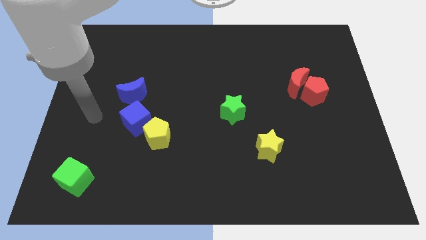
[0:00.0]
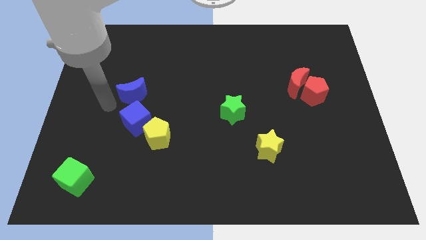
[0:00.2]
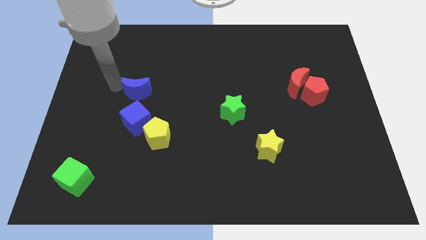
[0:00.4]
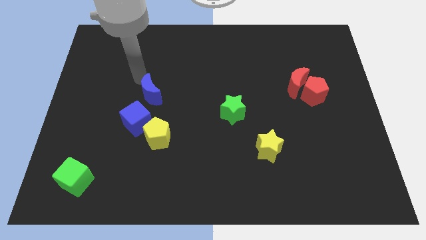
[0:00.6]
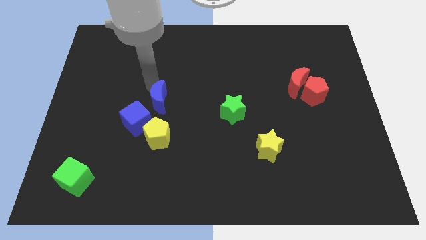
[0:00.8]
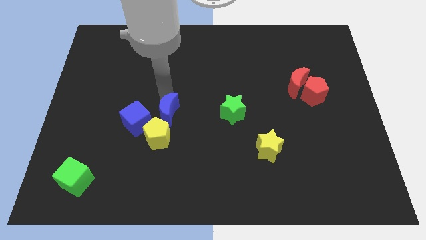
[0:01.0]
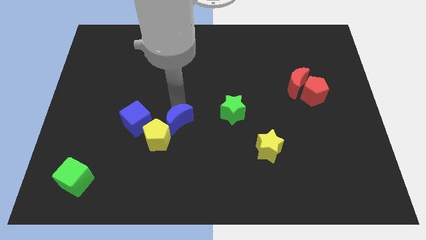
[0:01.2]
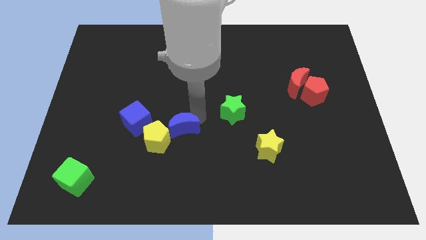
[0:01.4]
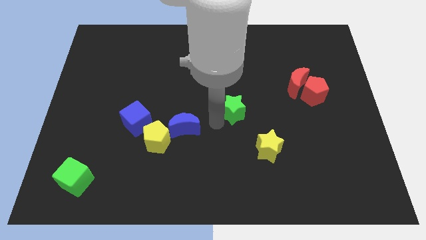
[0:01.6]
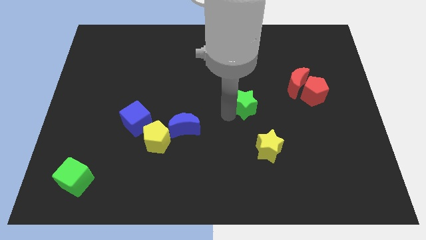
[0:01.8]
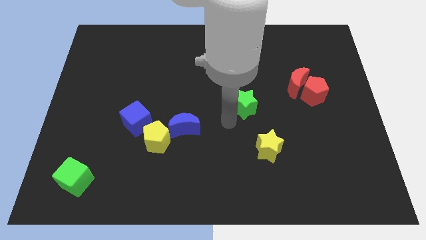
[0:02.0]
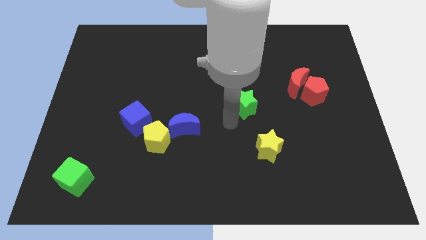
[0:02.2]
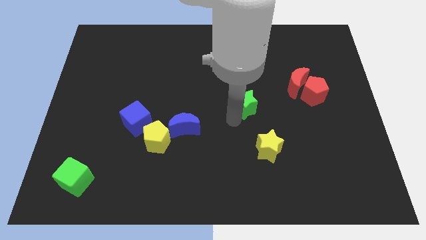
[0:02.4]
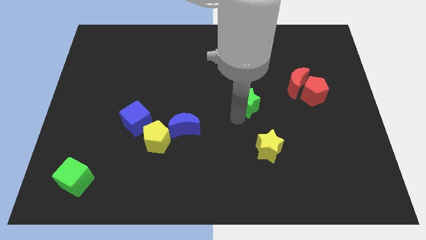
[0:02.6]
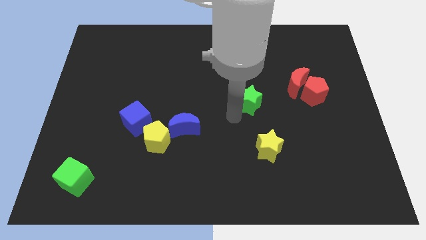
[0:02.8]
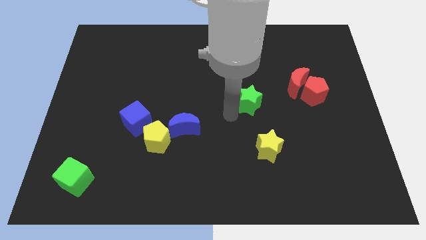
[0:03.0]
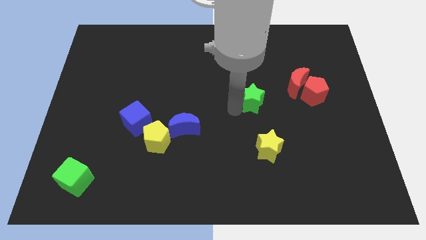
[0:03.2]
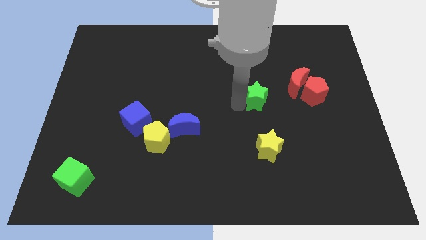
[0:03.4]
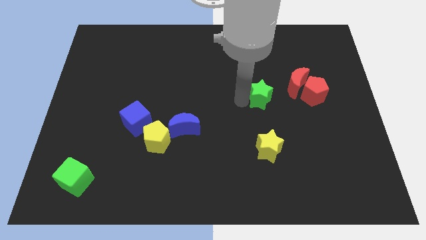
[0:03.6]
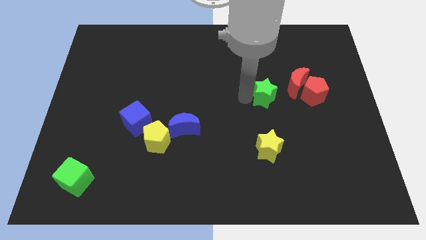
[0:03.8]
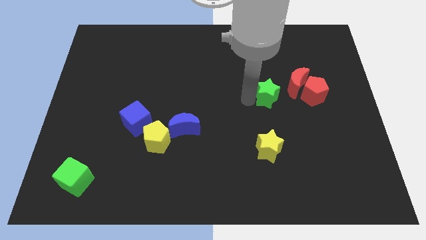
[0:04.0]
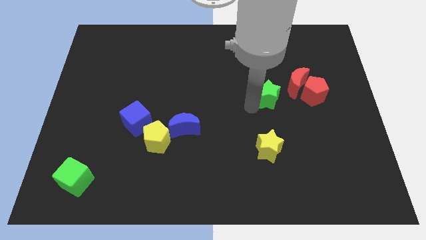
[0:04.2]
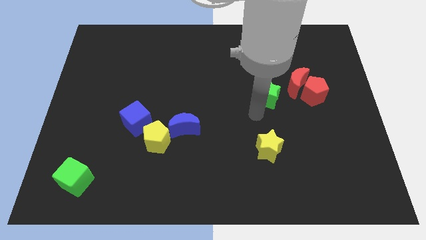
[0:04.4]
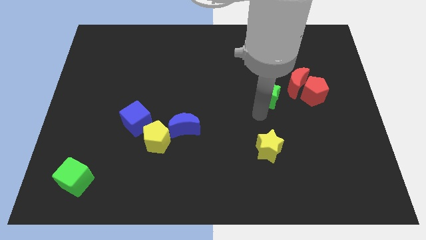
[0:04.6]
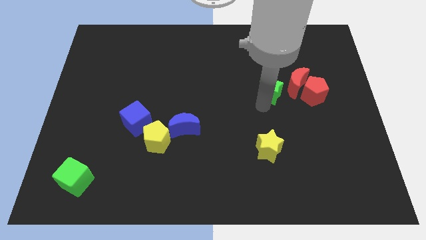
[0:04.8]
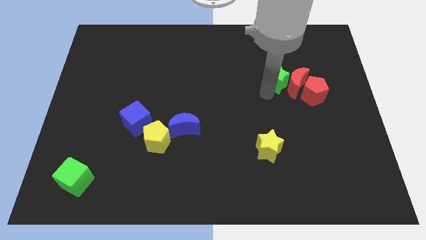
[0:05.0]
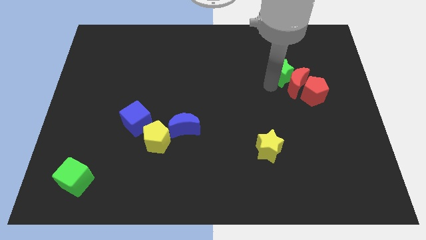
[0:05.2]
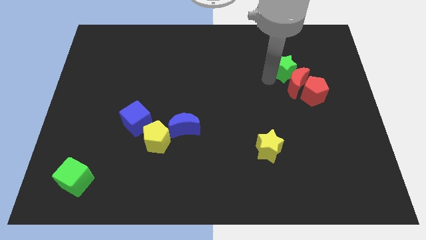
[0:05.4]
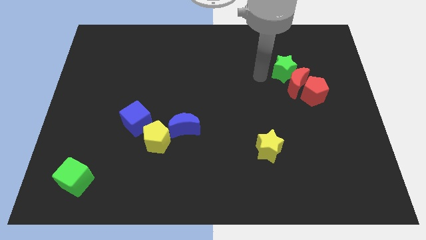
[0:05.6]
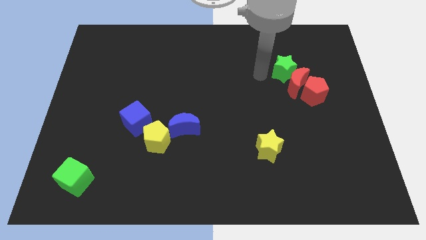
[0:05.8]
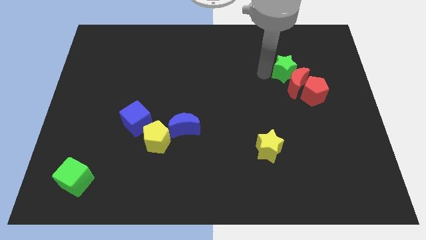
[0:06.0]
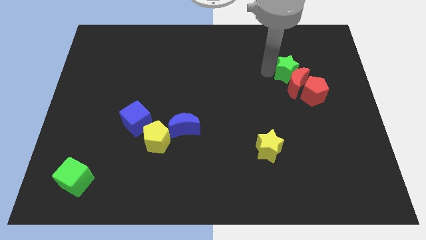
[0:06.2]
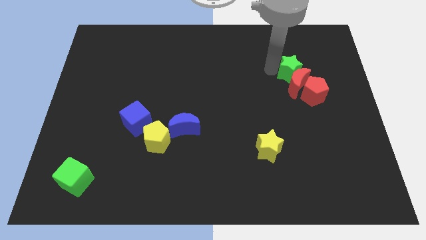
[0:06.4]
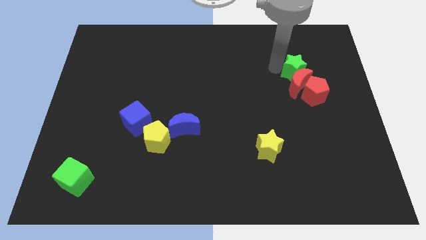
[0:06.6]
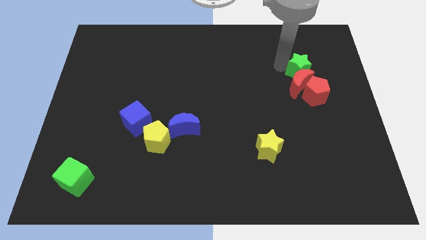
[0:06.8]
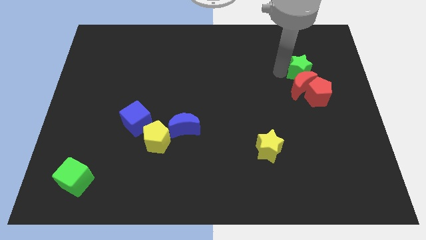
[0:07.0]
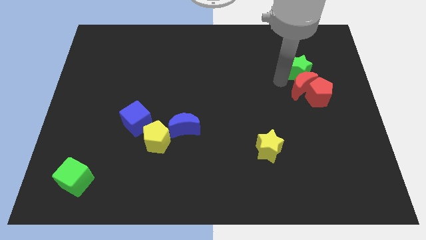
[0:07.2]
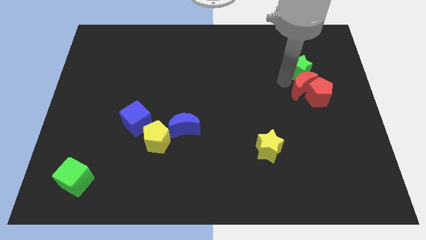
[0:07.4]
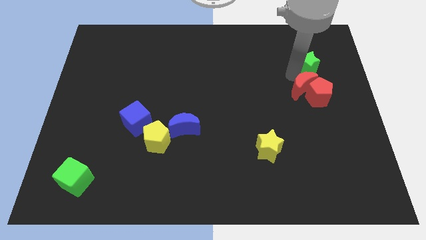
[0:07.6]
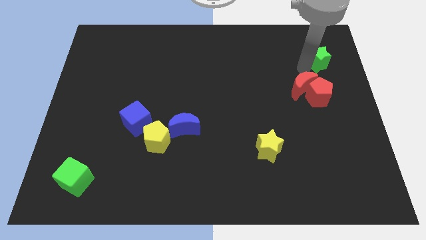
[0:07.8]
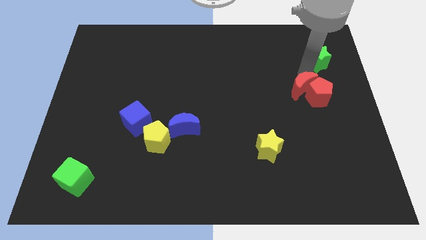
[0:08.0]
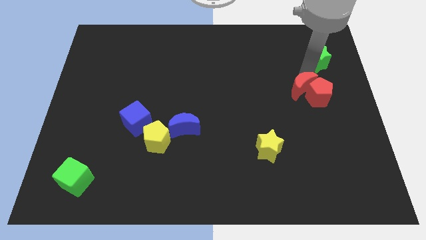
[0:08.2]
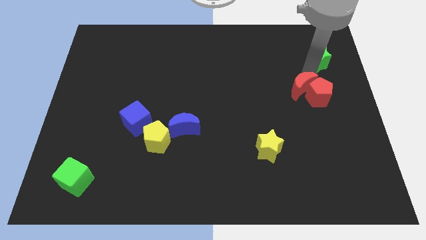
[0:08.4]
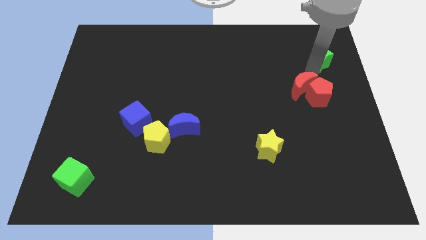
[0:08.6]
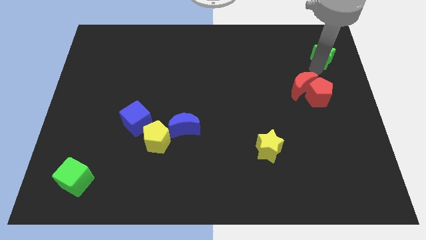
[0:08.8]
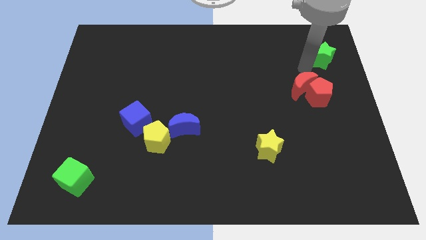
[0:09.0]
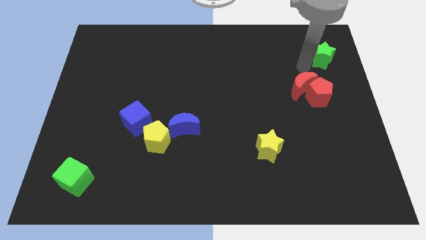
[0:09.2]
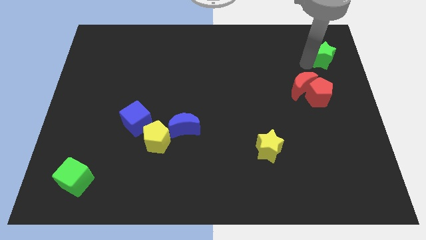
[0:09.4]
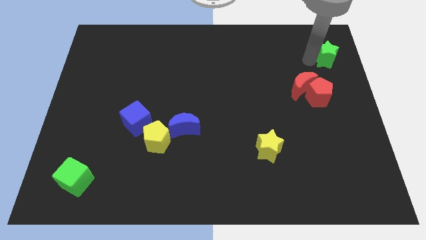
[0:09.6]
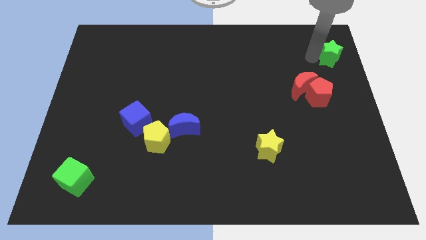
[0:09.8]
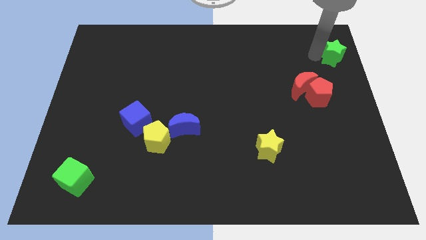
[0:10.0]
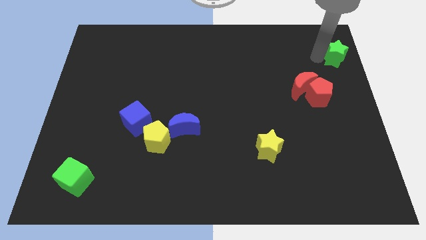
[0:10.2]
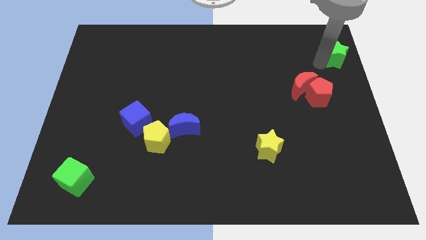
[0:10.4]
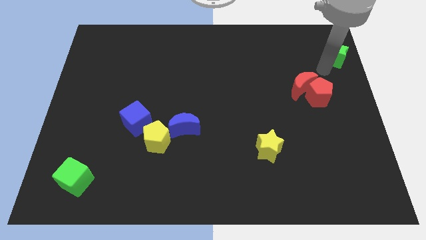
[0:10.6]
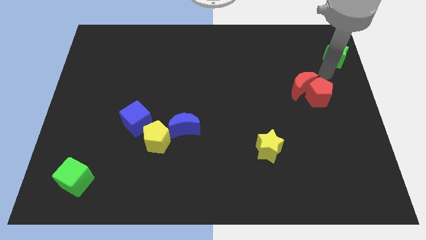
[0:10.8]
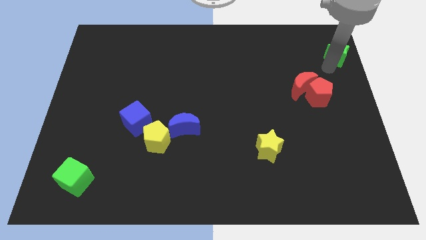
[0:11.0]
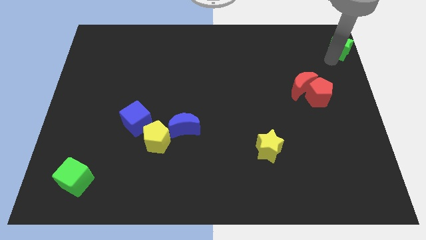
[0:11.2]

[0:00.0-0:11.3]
put the green star to the top right corner

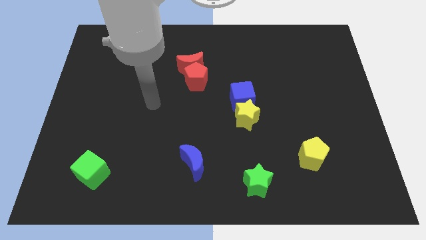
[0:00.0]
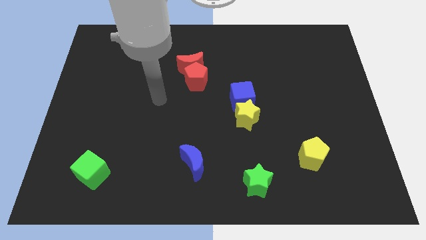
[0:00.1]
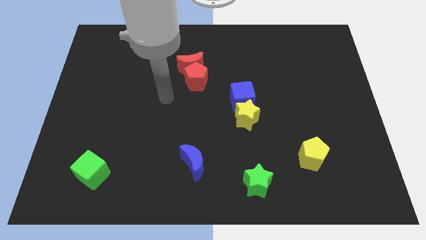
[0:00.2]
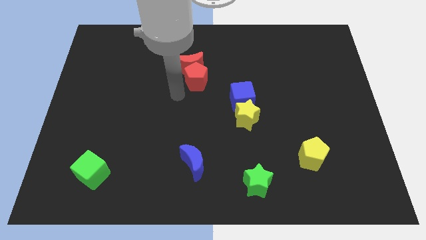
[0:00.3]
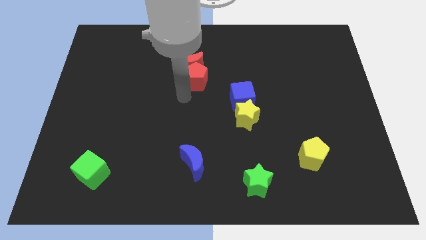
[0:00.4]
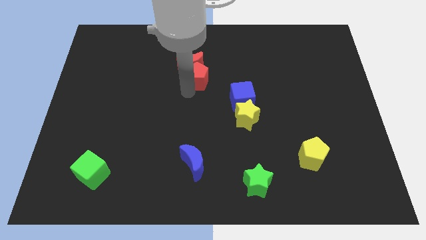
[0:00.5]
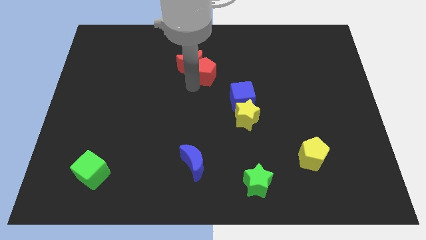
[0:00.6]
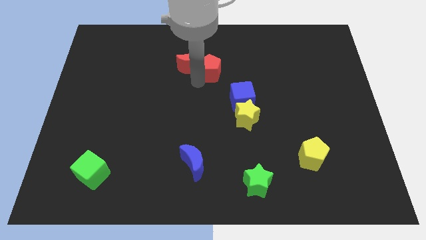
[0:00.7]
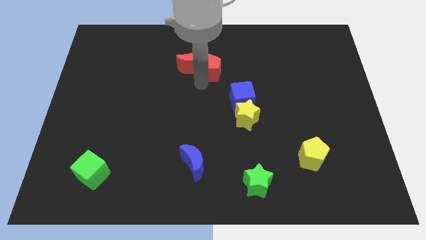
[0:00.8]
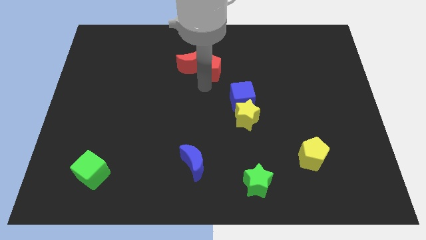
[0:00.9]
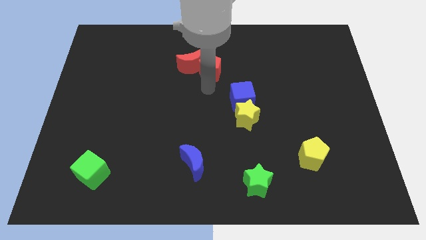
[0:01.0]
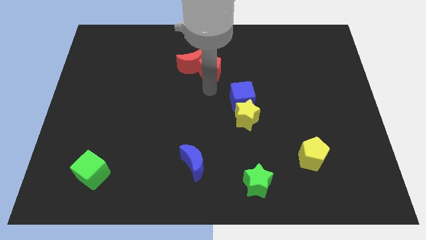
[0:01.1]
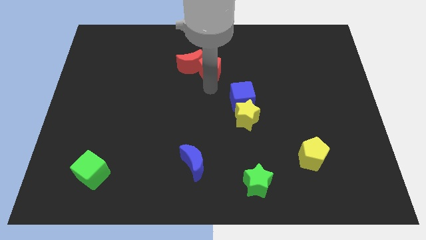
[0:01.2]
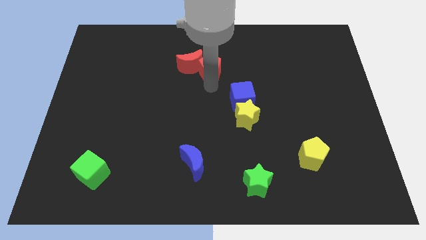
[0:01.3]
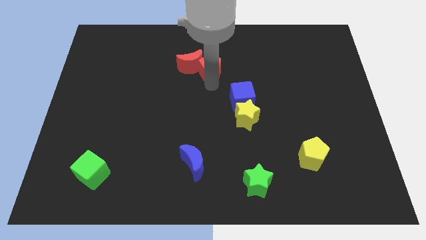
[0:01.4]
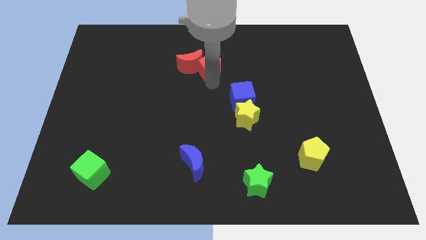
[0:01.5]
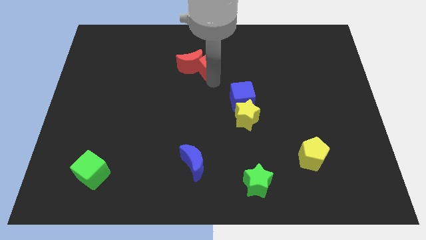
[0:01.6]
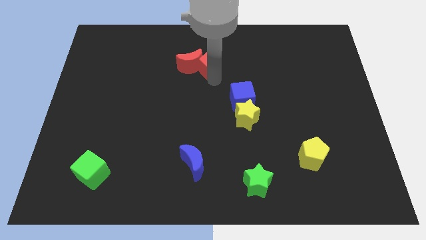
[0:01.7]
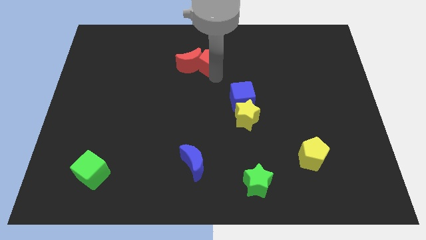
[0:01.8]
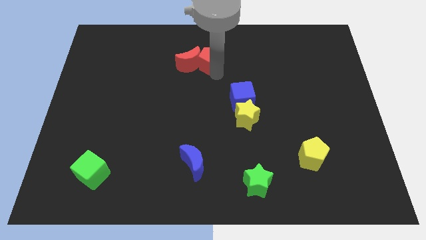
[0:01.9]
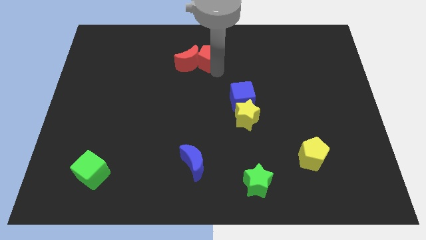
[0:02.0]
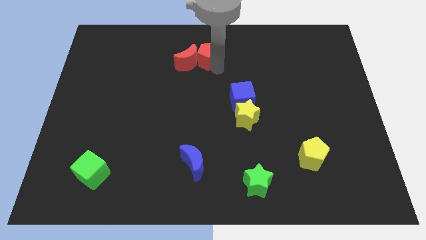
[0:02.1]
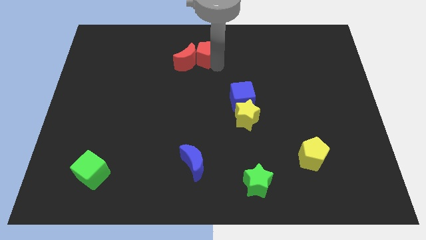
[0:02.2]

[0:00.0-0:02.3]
put the red pentagon to the top side
